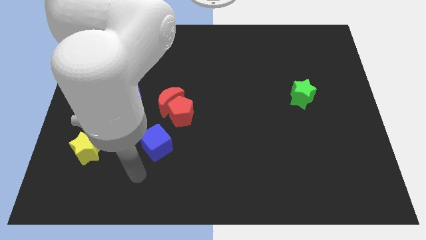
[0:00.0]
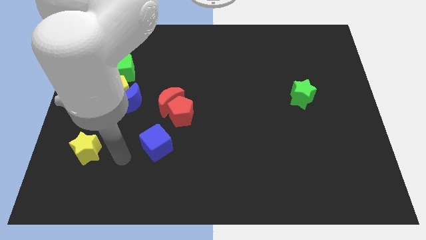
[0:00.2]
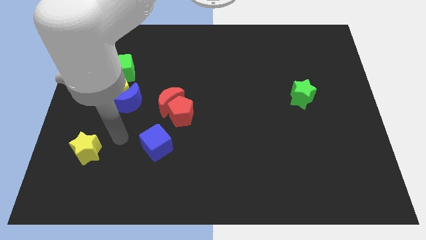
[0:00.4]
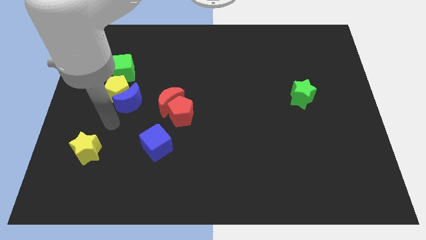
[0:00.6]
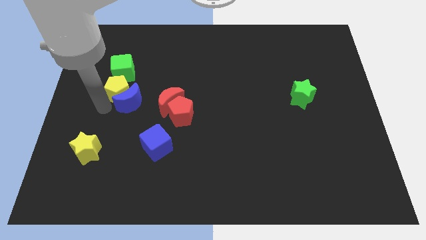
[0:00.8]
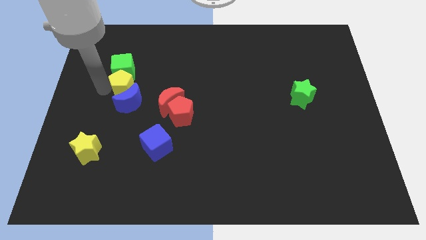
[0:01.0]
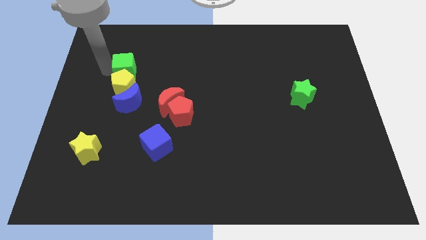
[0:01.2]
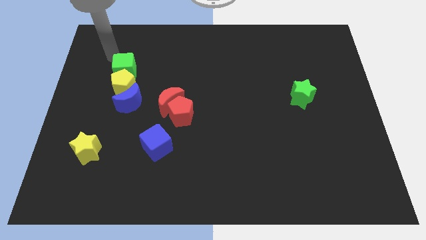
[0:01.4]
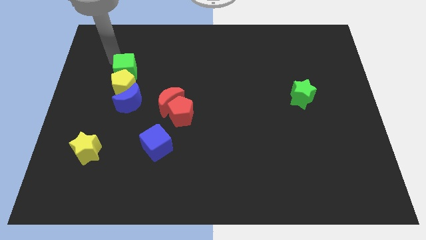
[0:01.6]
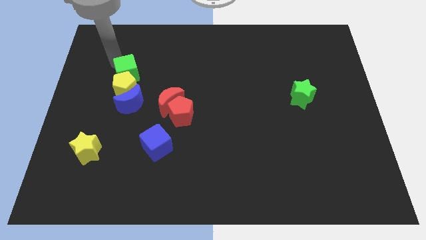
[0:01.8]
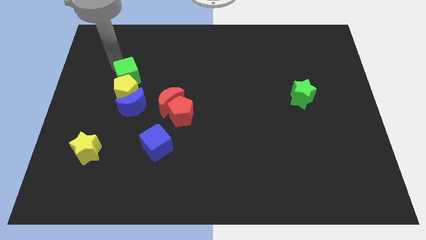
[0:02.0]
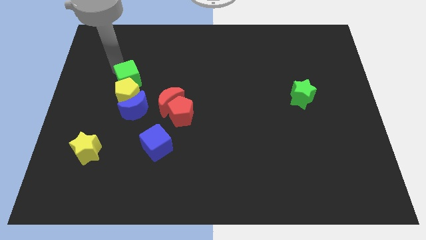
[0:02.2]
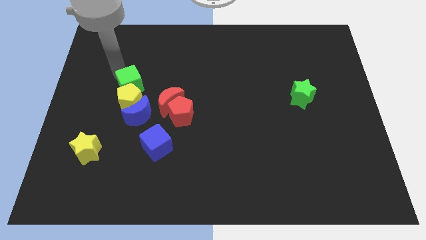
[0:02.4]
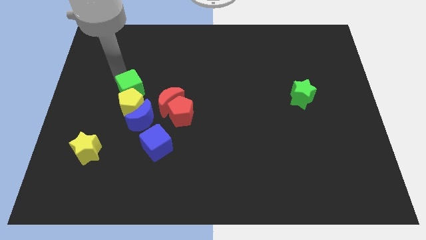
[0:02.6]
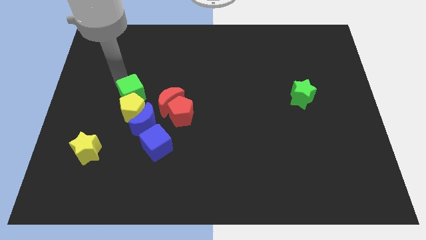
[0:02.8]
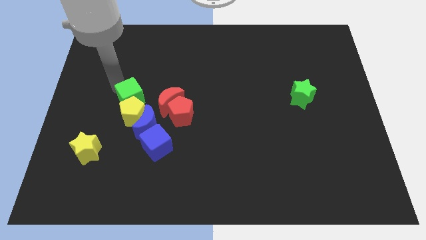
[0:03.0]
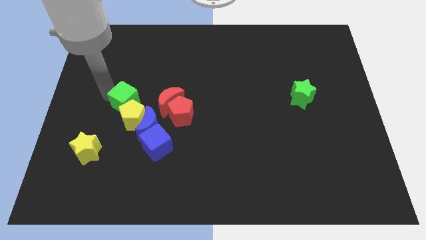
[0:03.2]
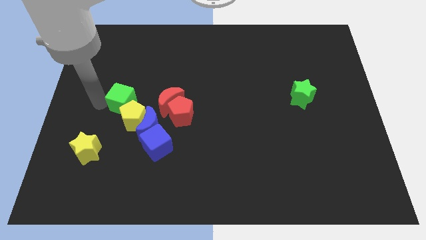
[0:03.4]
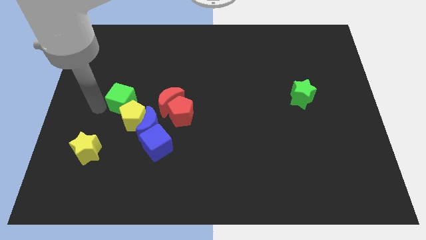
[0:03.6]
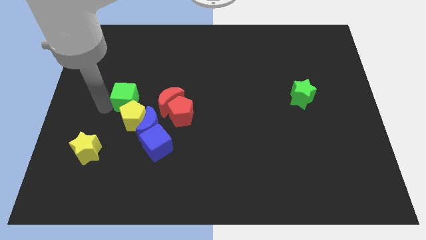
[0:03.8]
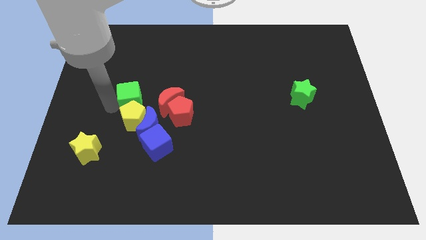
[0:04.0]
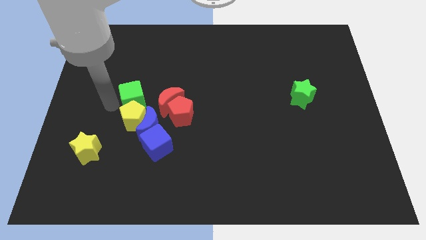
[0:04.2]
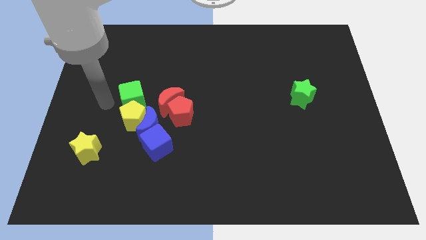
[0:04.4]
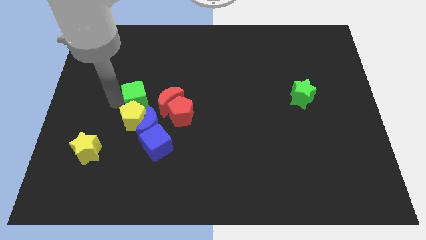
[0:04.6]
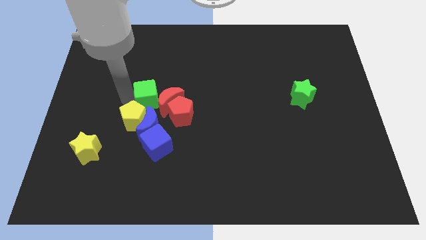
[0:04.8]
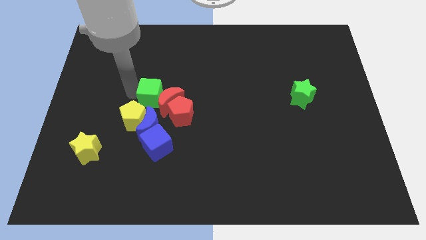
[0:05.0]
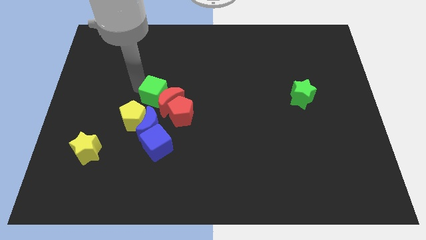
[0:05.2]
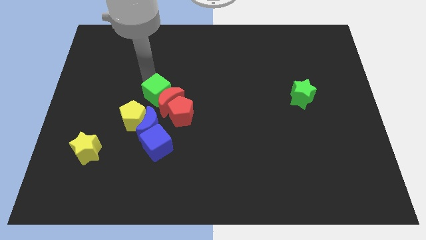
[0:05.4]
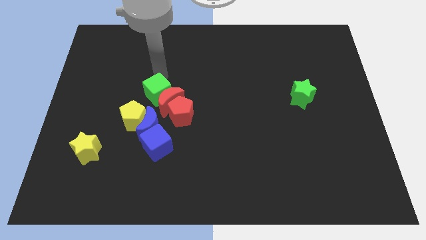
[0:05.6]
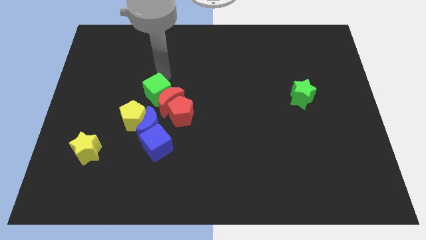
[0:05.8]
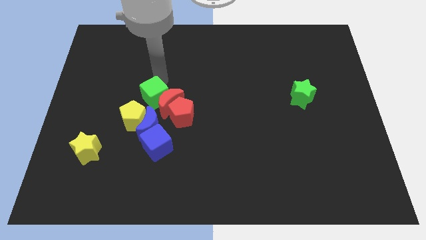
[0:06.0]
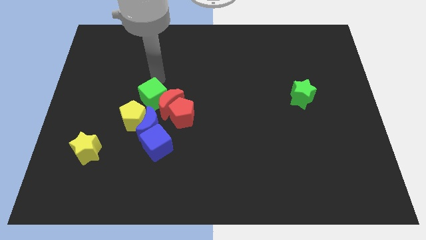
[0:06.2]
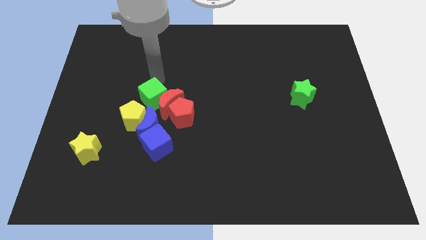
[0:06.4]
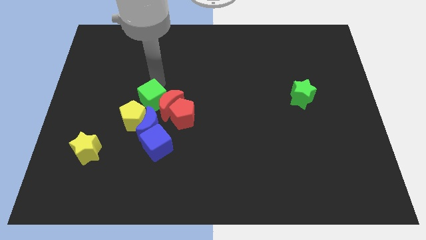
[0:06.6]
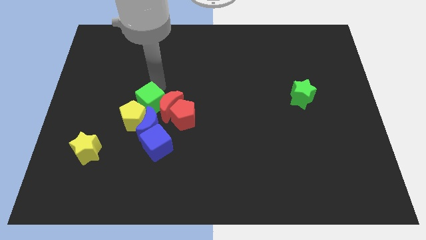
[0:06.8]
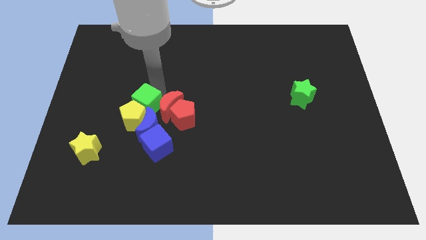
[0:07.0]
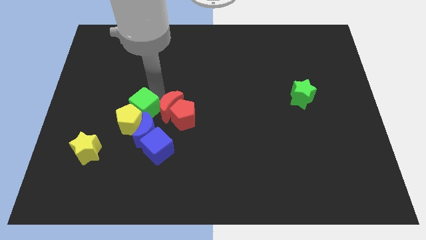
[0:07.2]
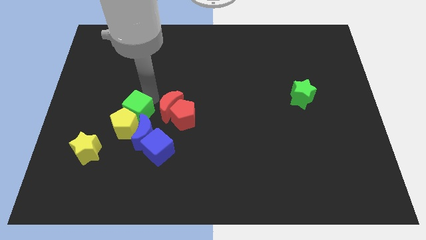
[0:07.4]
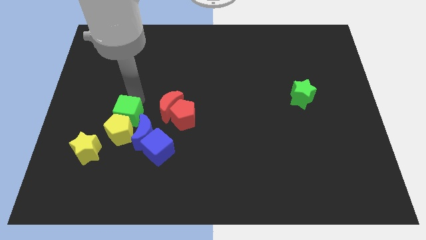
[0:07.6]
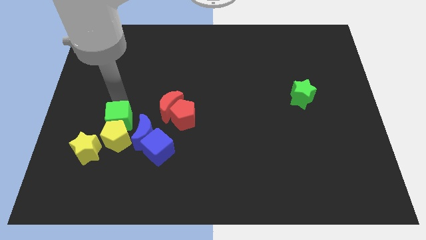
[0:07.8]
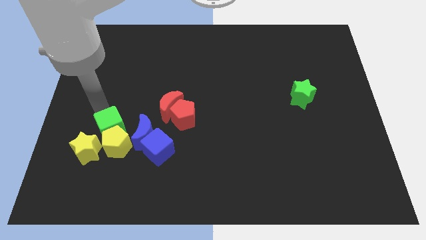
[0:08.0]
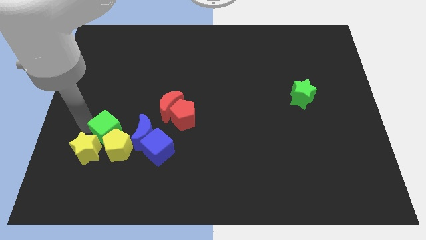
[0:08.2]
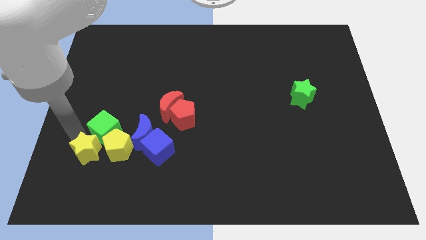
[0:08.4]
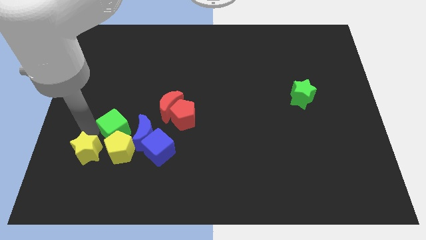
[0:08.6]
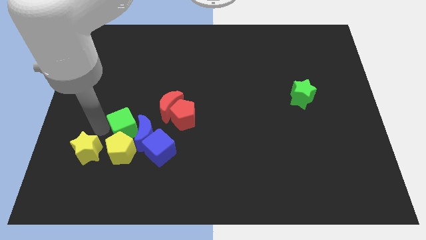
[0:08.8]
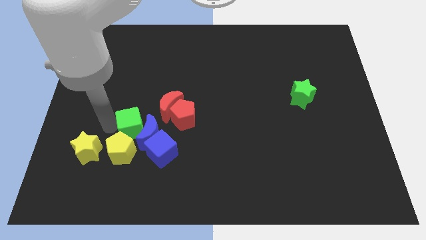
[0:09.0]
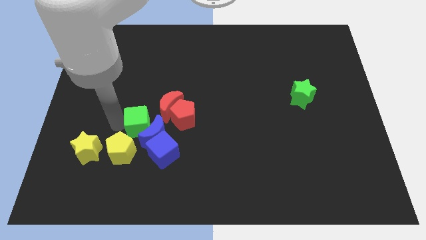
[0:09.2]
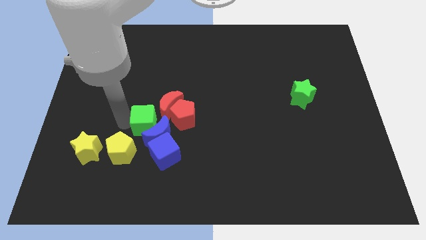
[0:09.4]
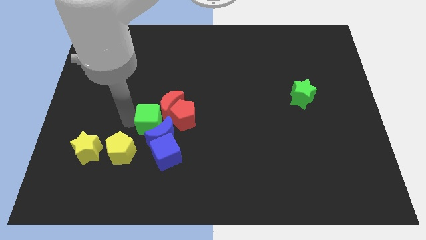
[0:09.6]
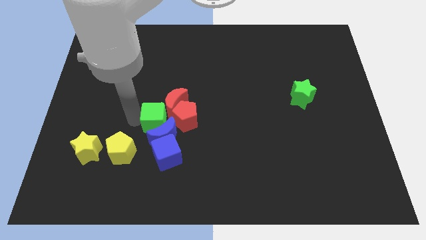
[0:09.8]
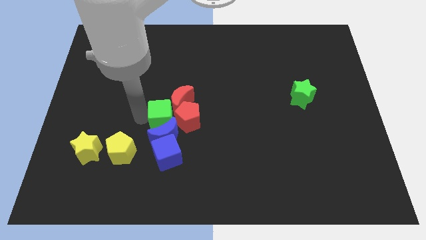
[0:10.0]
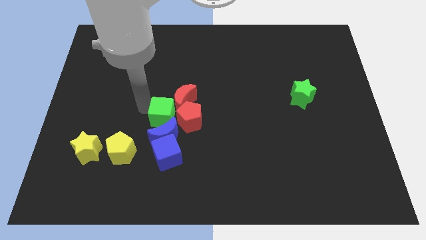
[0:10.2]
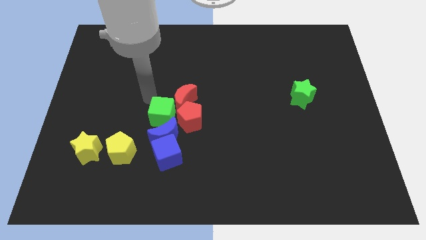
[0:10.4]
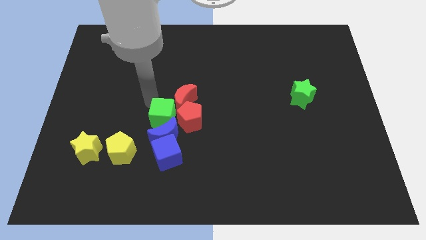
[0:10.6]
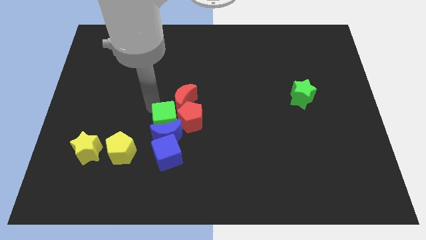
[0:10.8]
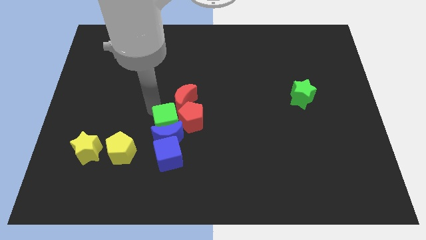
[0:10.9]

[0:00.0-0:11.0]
push the green cube downwards and right diagonally

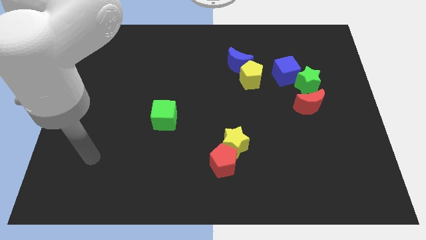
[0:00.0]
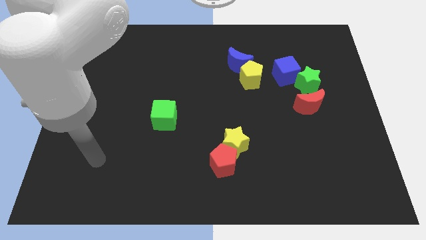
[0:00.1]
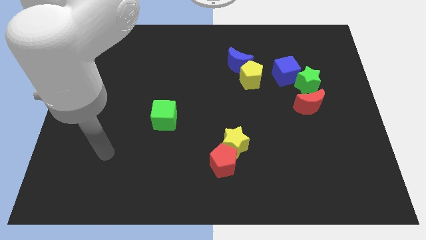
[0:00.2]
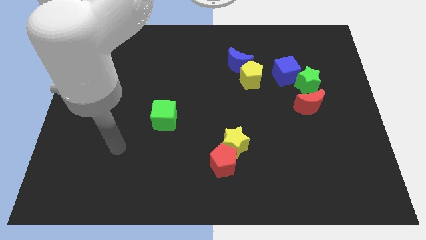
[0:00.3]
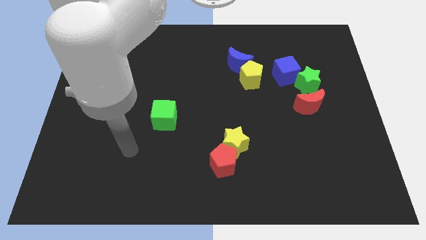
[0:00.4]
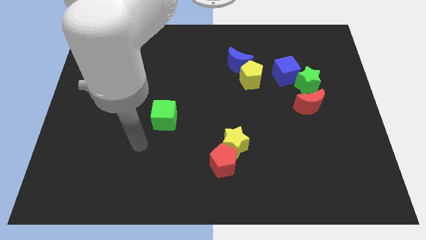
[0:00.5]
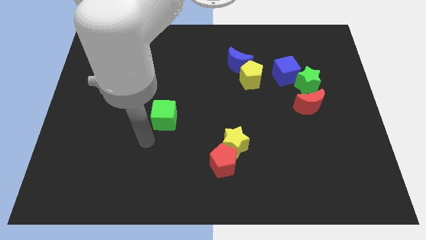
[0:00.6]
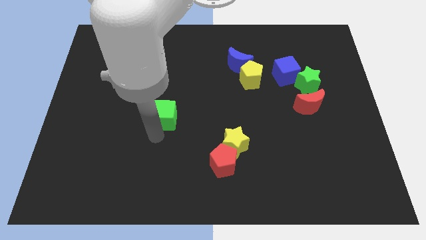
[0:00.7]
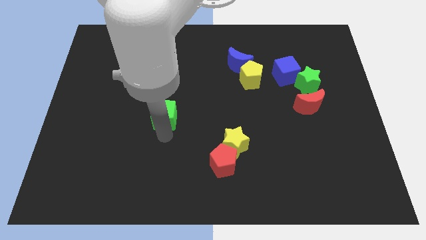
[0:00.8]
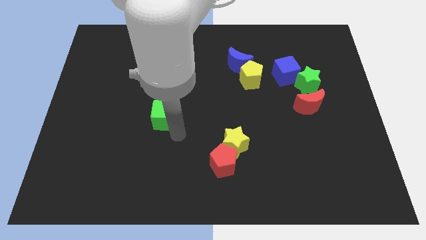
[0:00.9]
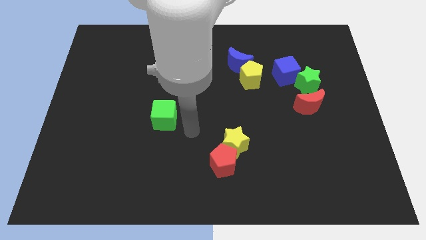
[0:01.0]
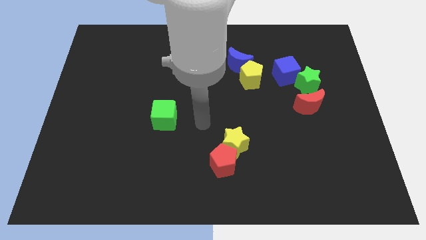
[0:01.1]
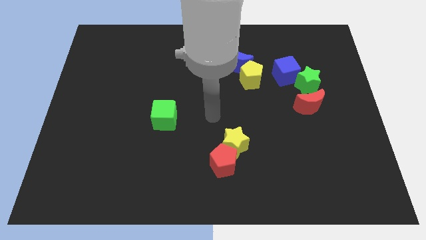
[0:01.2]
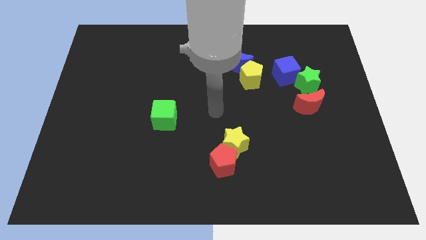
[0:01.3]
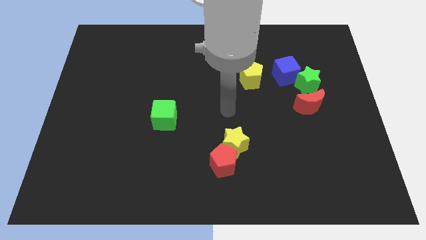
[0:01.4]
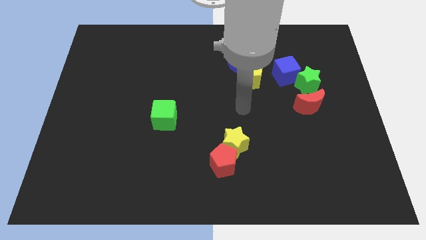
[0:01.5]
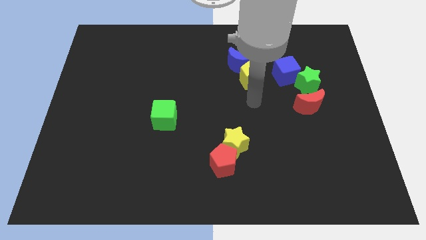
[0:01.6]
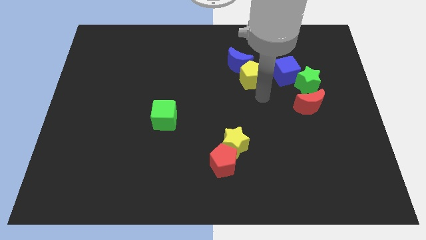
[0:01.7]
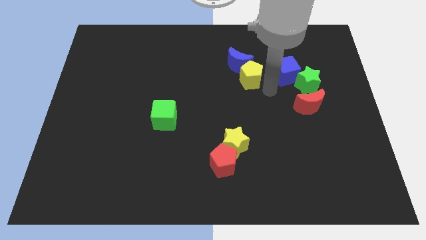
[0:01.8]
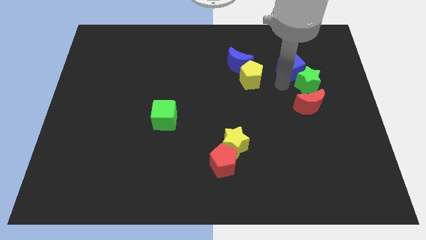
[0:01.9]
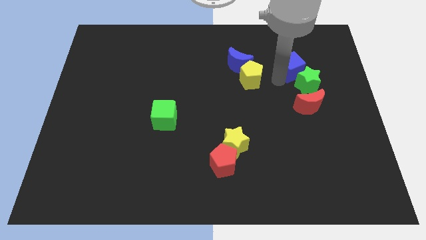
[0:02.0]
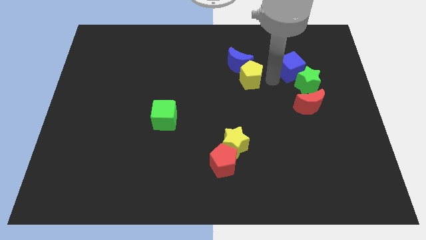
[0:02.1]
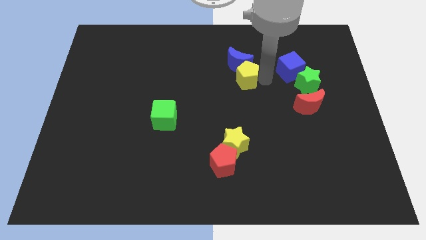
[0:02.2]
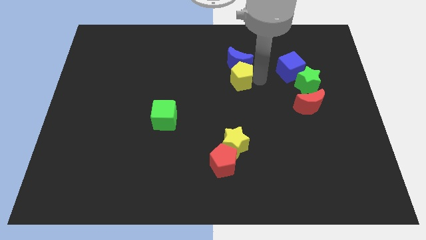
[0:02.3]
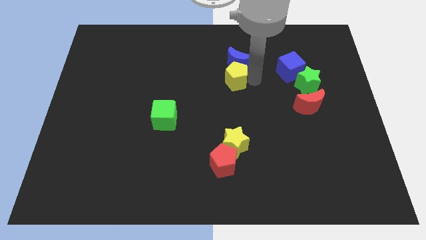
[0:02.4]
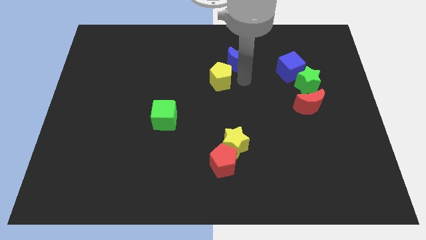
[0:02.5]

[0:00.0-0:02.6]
move the yellow pentagon left a little

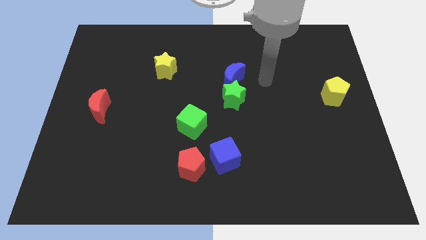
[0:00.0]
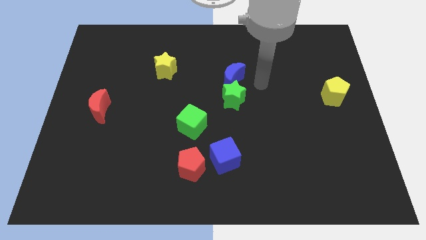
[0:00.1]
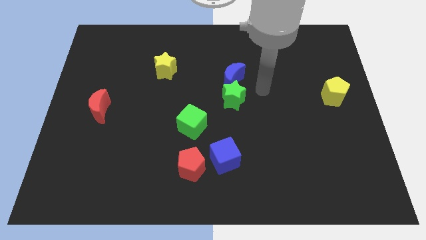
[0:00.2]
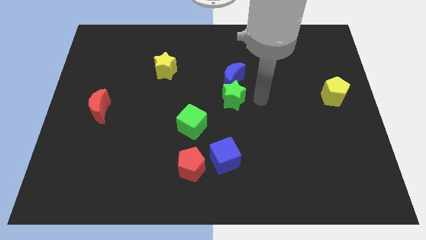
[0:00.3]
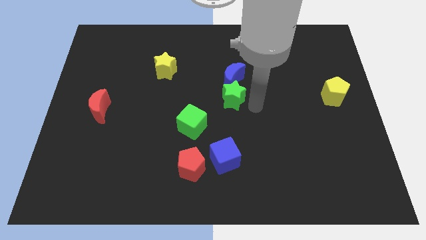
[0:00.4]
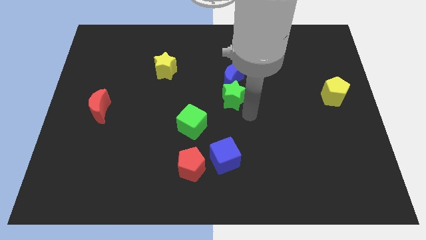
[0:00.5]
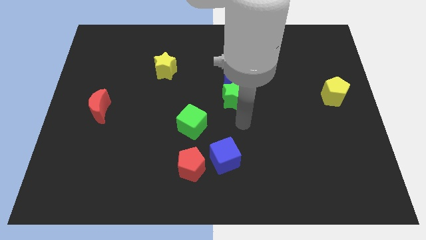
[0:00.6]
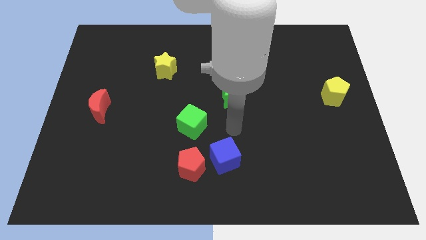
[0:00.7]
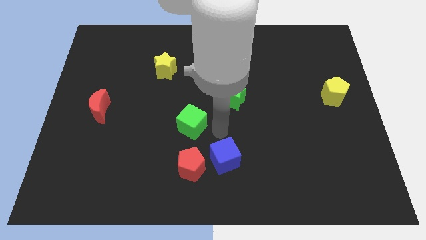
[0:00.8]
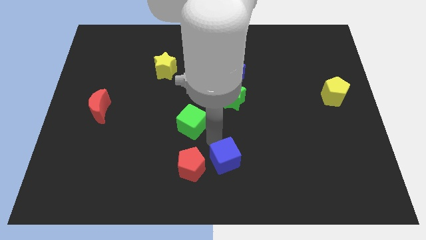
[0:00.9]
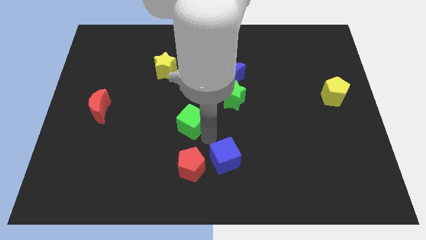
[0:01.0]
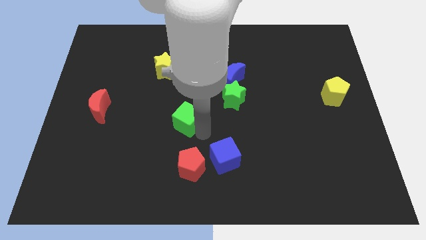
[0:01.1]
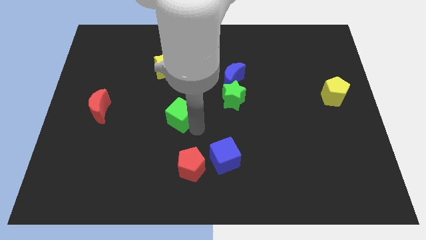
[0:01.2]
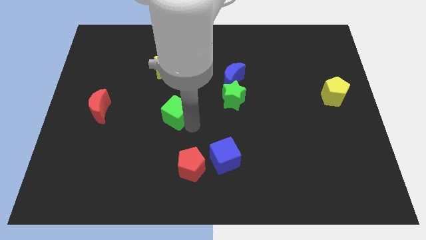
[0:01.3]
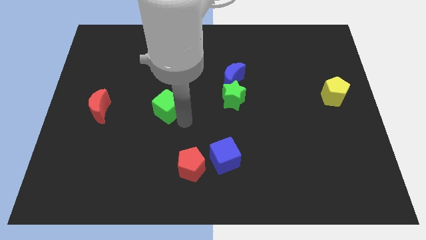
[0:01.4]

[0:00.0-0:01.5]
move the green cube diagonally upwards and to the left a little bit
